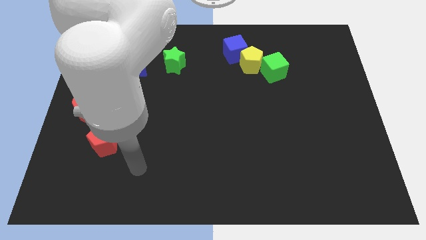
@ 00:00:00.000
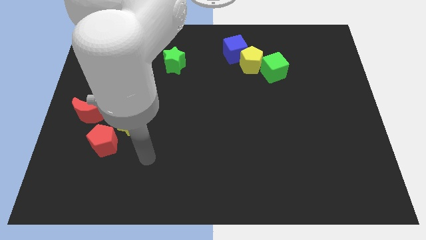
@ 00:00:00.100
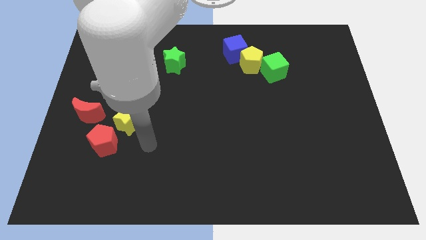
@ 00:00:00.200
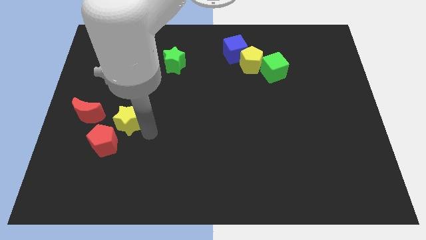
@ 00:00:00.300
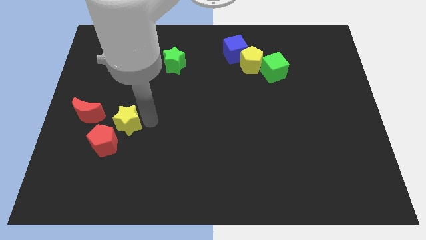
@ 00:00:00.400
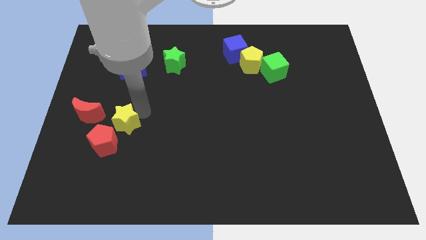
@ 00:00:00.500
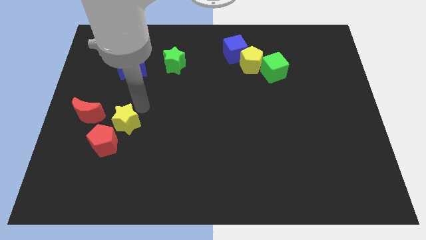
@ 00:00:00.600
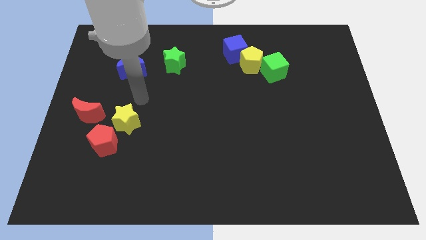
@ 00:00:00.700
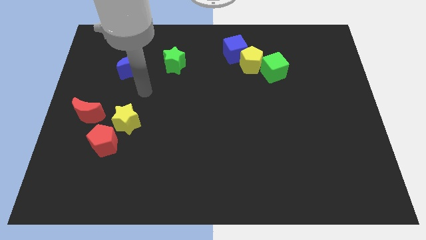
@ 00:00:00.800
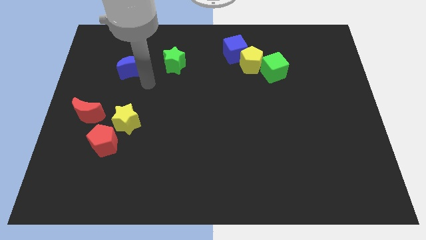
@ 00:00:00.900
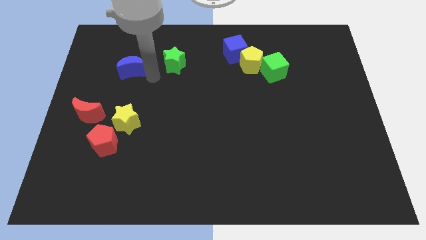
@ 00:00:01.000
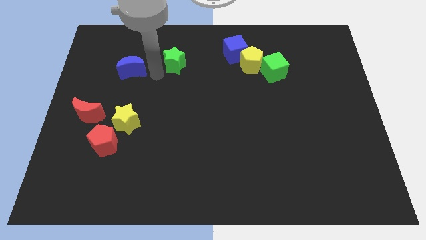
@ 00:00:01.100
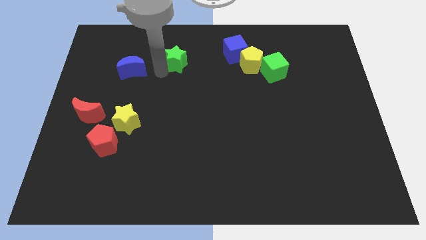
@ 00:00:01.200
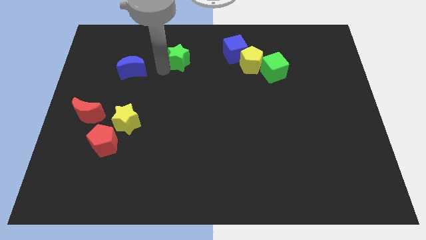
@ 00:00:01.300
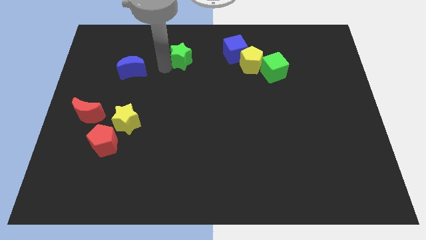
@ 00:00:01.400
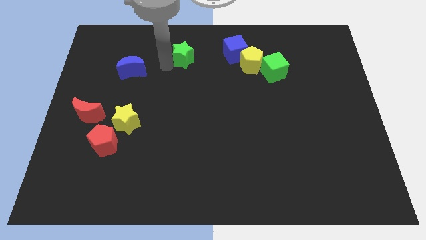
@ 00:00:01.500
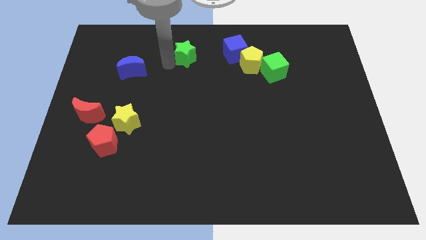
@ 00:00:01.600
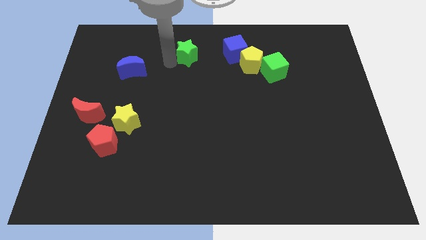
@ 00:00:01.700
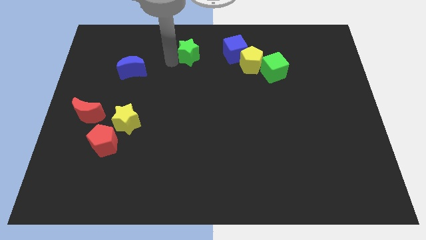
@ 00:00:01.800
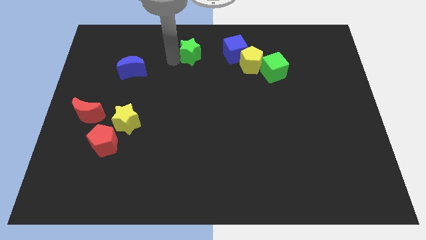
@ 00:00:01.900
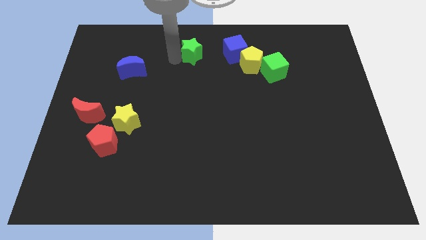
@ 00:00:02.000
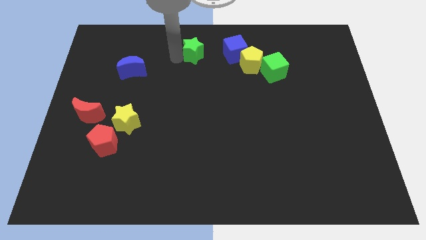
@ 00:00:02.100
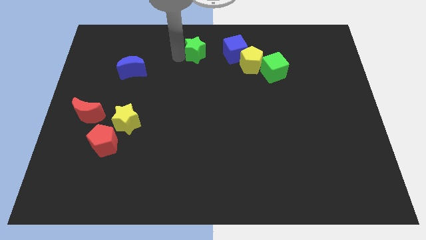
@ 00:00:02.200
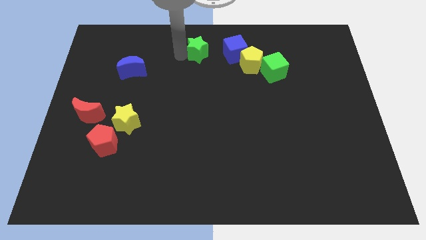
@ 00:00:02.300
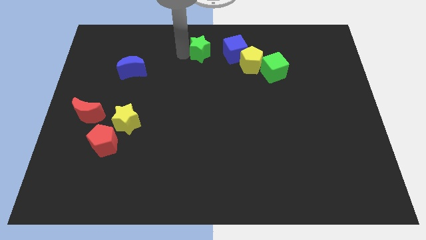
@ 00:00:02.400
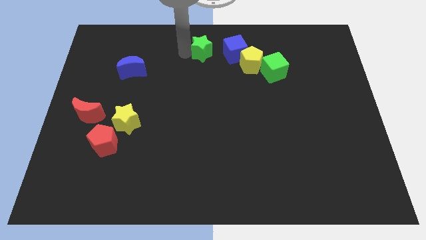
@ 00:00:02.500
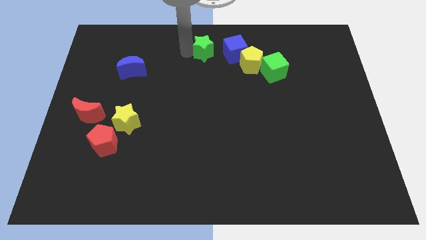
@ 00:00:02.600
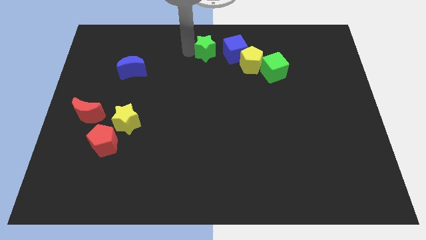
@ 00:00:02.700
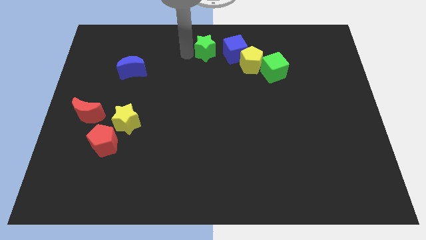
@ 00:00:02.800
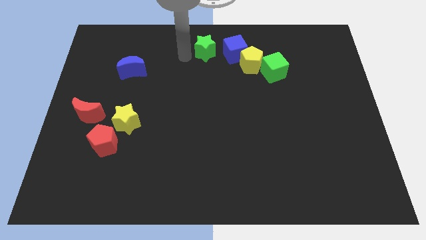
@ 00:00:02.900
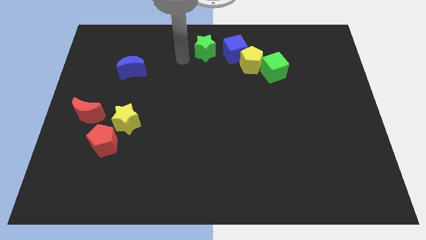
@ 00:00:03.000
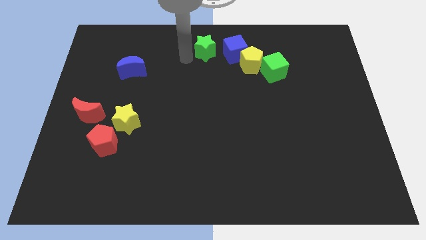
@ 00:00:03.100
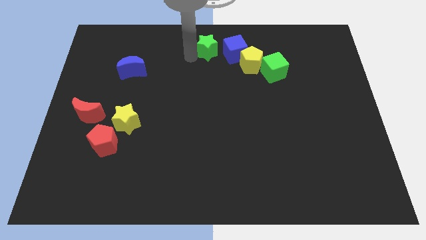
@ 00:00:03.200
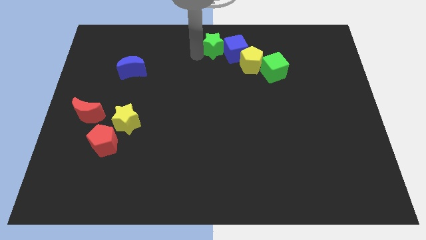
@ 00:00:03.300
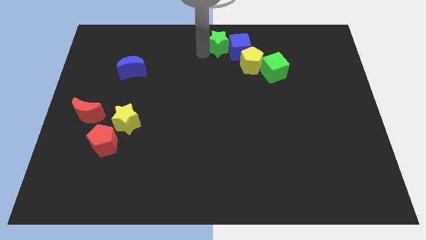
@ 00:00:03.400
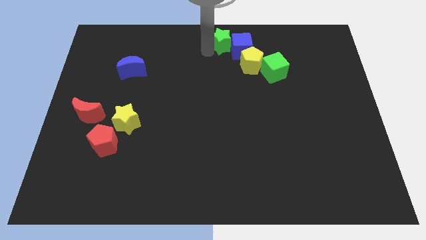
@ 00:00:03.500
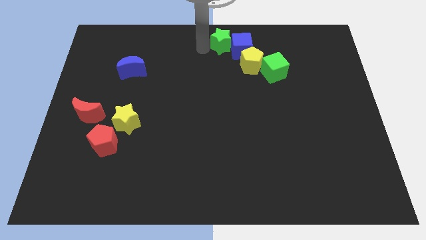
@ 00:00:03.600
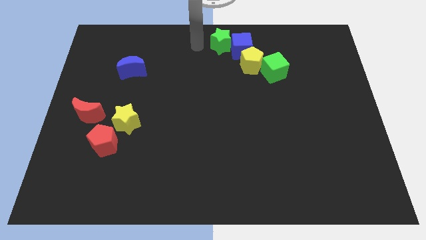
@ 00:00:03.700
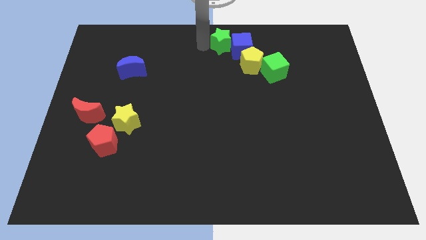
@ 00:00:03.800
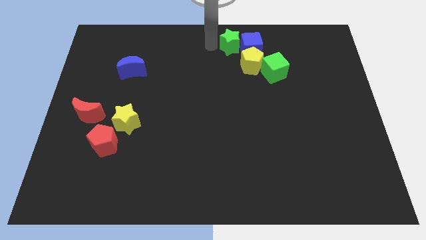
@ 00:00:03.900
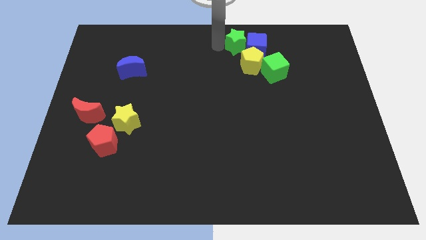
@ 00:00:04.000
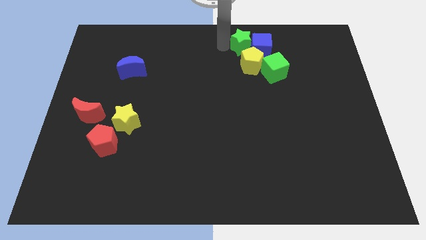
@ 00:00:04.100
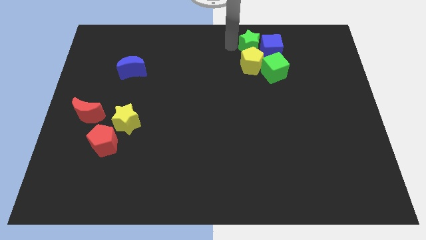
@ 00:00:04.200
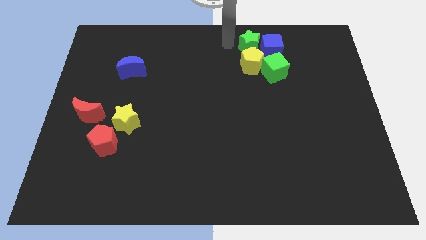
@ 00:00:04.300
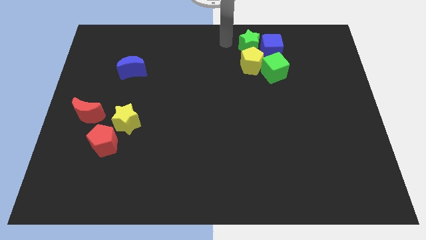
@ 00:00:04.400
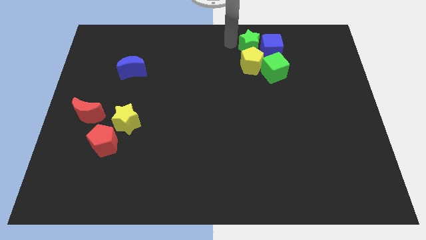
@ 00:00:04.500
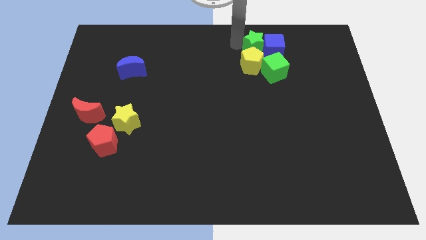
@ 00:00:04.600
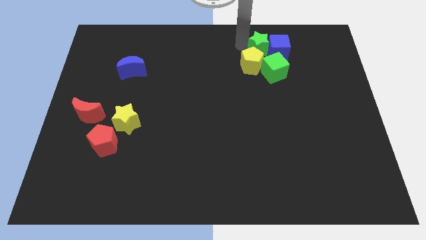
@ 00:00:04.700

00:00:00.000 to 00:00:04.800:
move the green star right

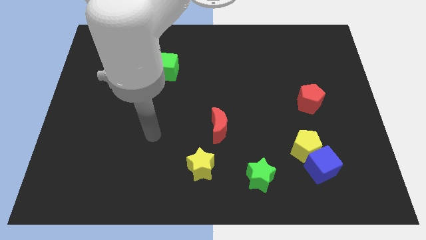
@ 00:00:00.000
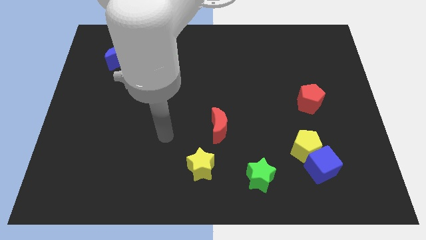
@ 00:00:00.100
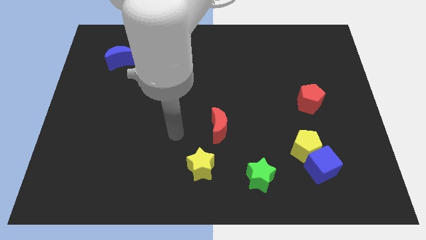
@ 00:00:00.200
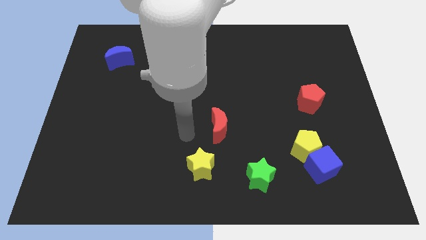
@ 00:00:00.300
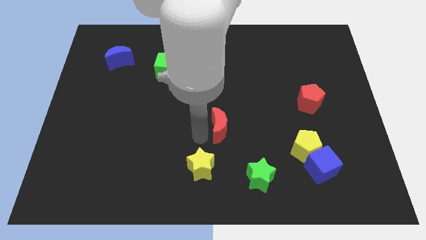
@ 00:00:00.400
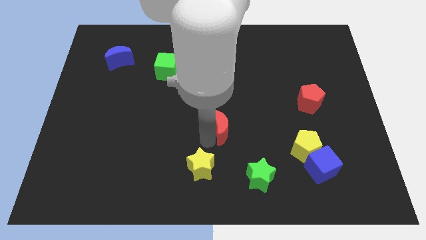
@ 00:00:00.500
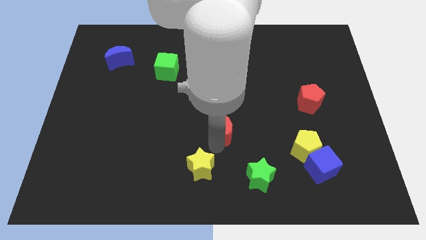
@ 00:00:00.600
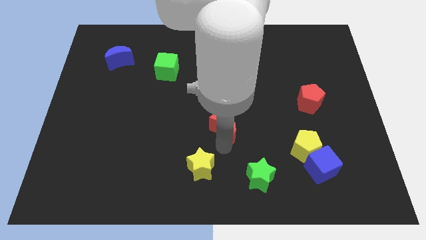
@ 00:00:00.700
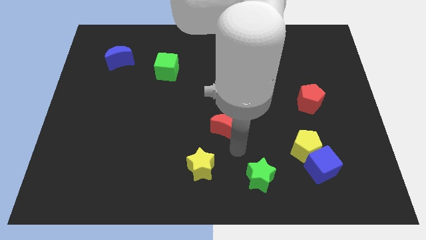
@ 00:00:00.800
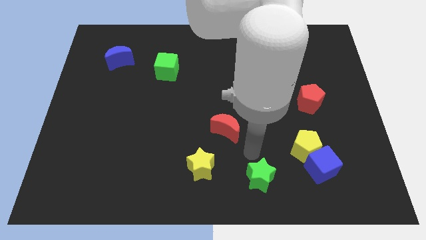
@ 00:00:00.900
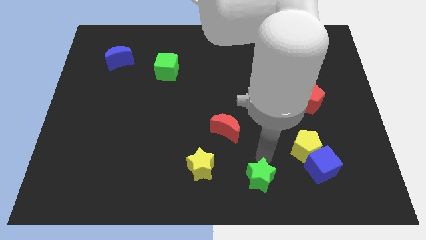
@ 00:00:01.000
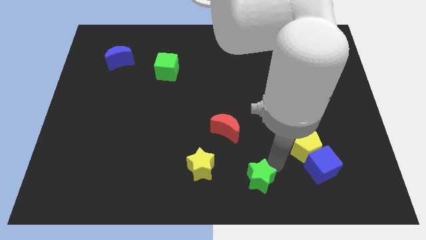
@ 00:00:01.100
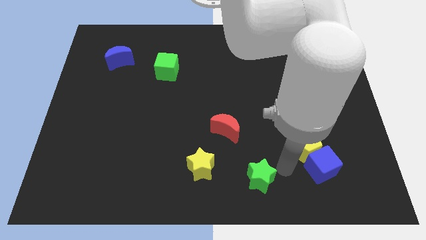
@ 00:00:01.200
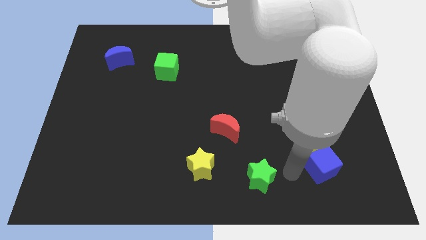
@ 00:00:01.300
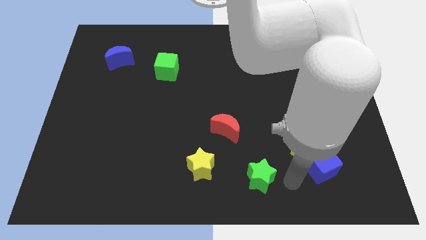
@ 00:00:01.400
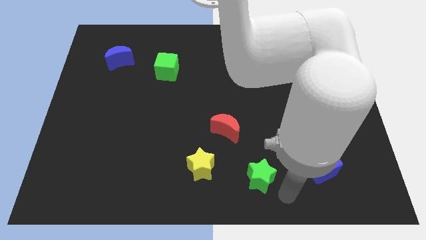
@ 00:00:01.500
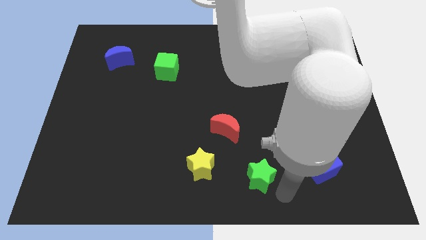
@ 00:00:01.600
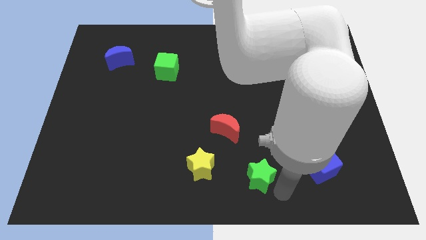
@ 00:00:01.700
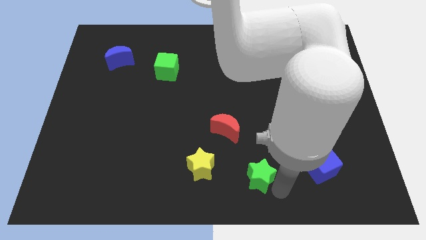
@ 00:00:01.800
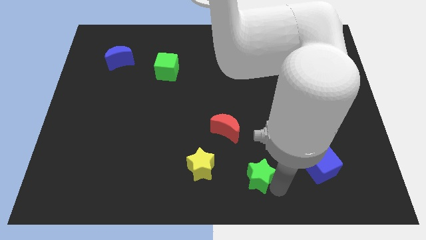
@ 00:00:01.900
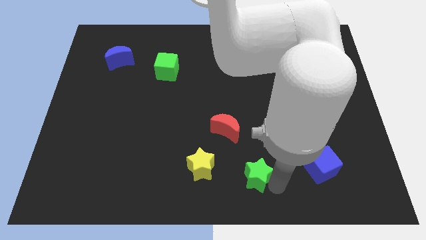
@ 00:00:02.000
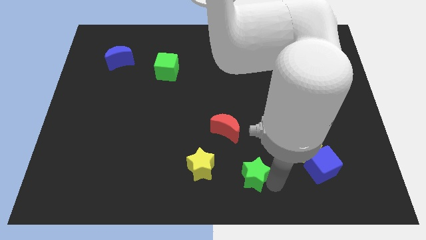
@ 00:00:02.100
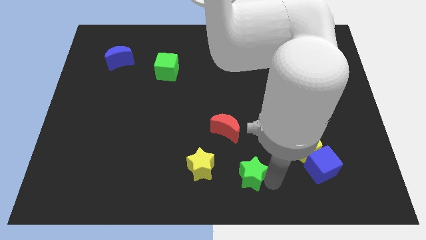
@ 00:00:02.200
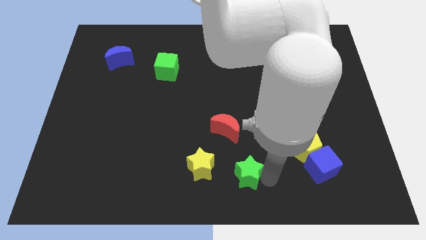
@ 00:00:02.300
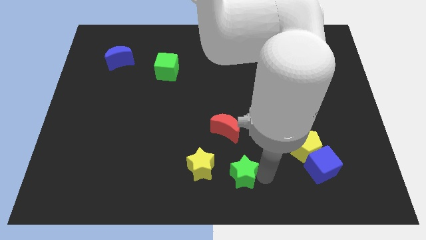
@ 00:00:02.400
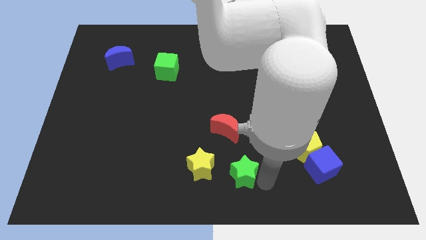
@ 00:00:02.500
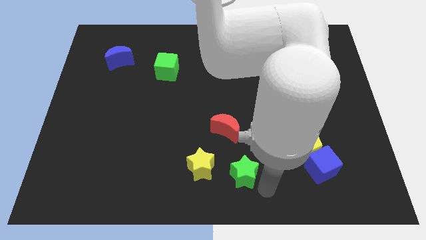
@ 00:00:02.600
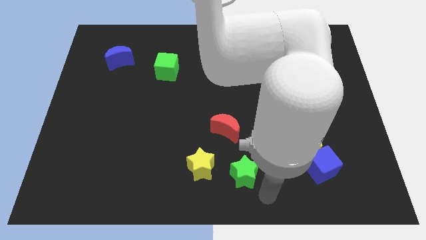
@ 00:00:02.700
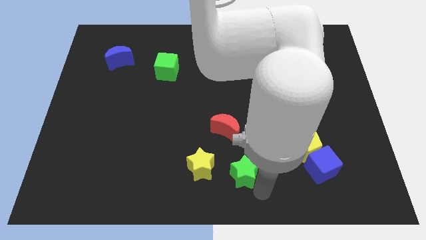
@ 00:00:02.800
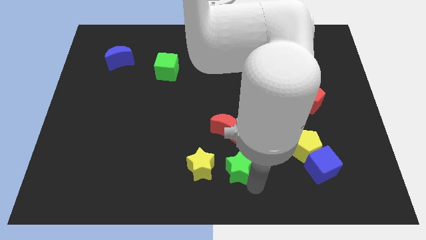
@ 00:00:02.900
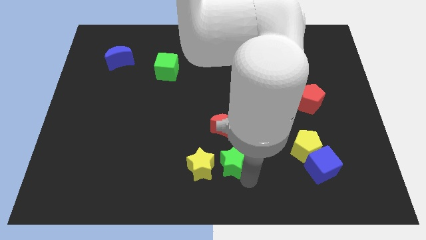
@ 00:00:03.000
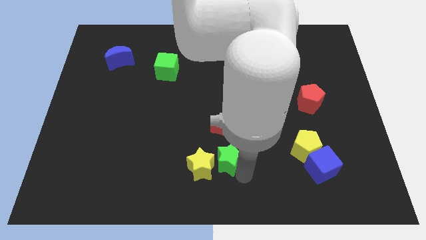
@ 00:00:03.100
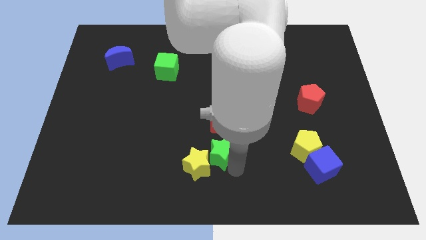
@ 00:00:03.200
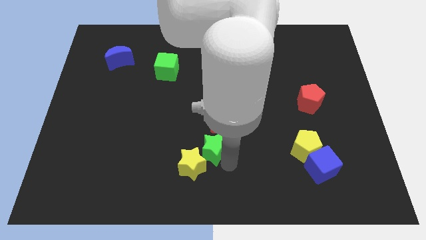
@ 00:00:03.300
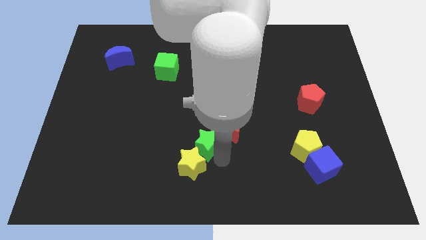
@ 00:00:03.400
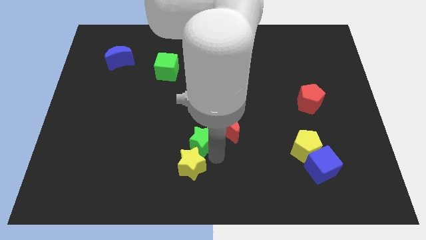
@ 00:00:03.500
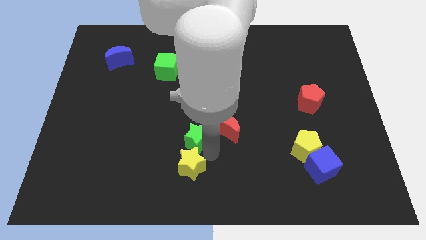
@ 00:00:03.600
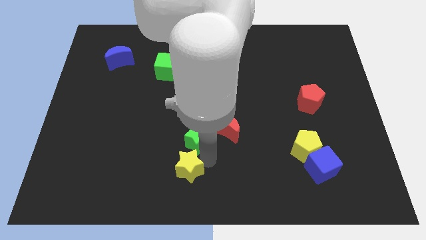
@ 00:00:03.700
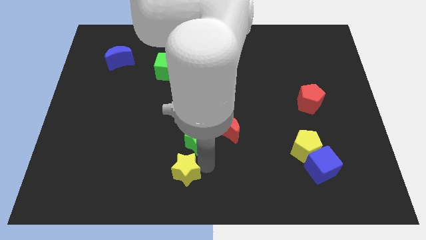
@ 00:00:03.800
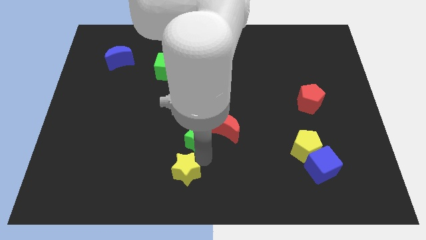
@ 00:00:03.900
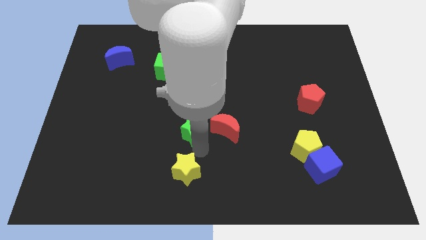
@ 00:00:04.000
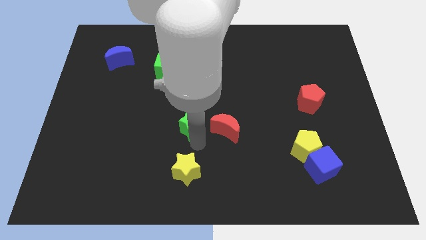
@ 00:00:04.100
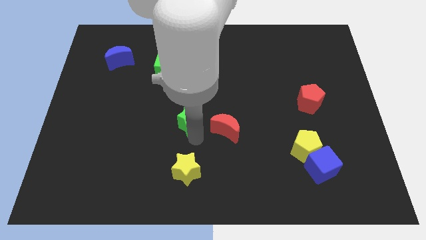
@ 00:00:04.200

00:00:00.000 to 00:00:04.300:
move the green star upwards and left
